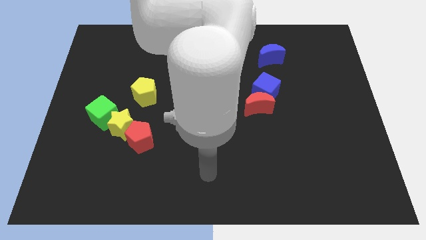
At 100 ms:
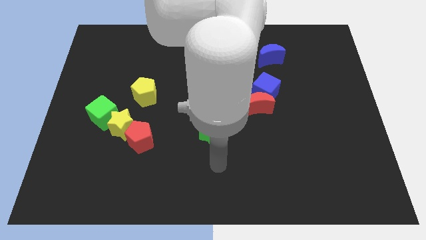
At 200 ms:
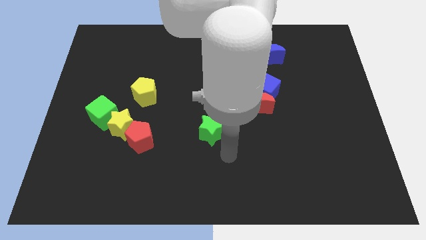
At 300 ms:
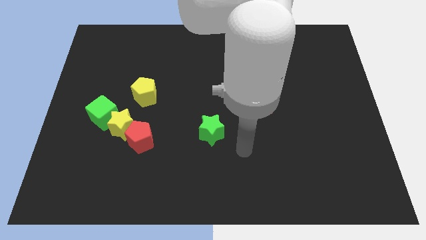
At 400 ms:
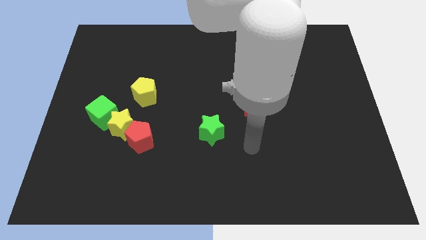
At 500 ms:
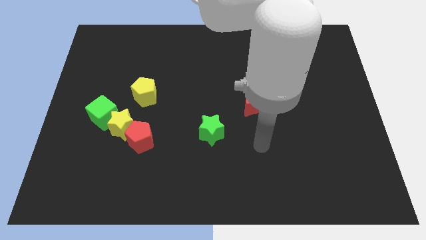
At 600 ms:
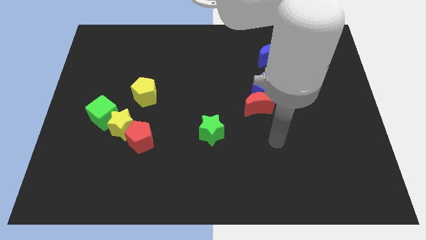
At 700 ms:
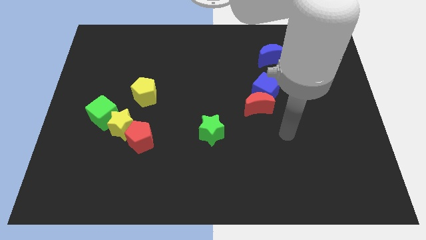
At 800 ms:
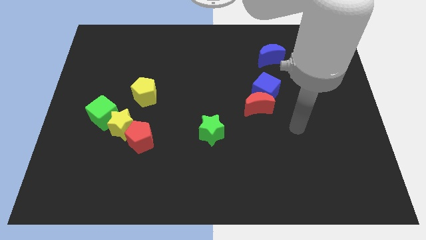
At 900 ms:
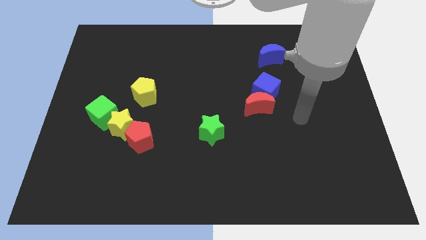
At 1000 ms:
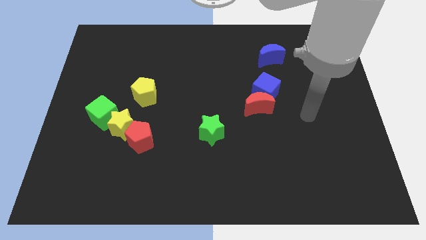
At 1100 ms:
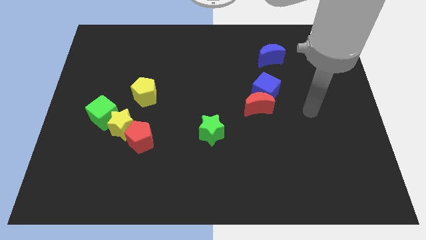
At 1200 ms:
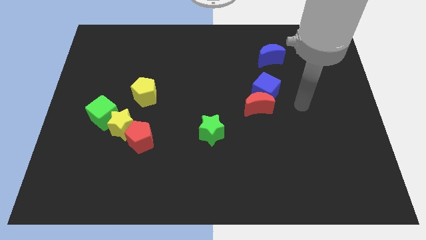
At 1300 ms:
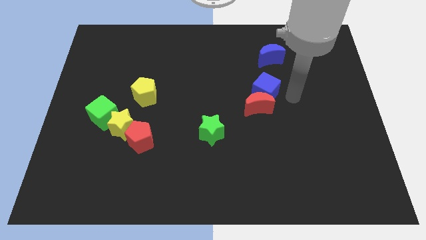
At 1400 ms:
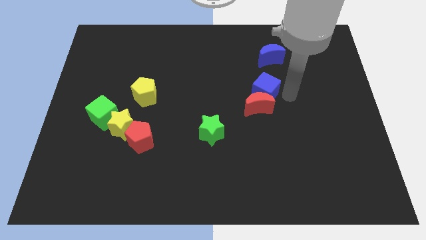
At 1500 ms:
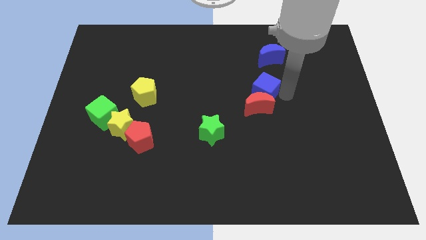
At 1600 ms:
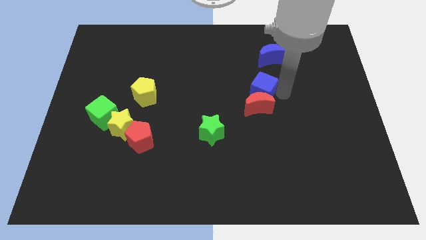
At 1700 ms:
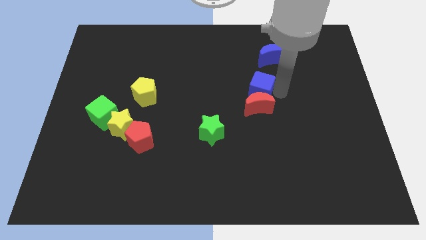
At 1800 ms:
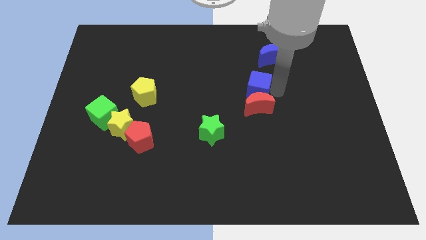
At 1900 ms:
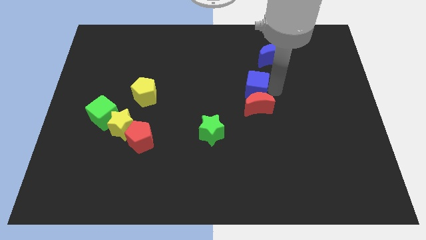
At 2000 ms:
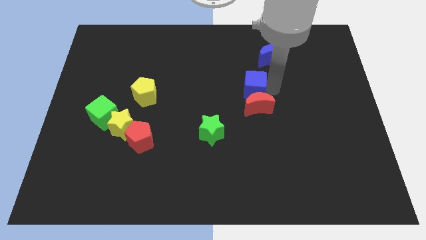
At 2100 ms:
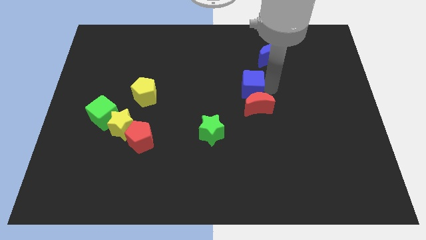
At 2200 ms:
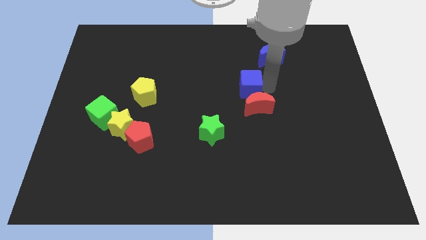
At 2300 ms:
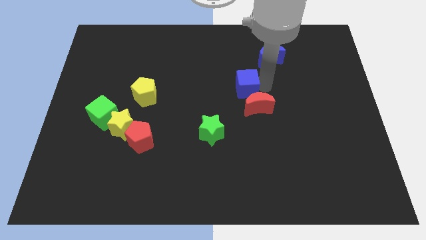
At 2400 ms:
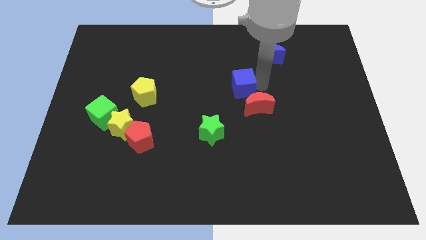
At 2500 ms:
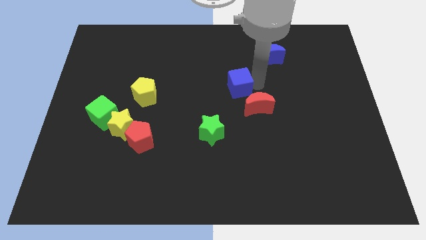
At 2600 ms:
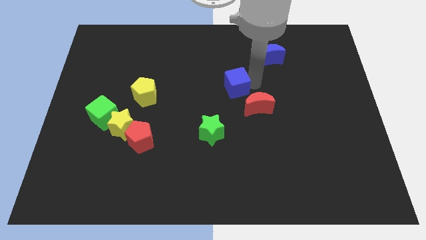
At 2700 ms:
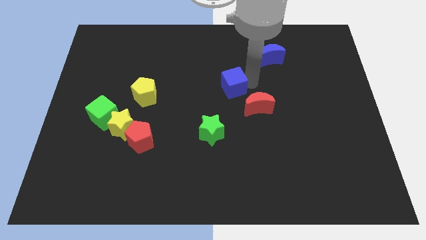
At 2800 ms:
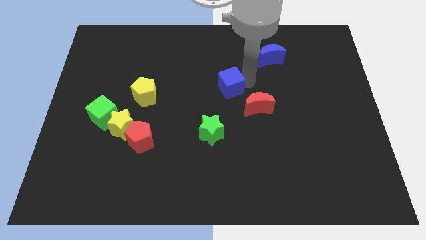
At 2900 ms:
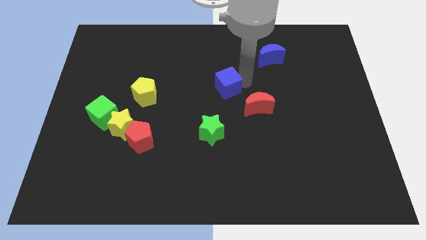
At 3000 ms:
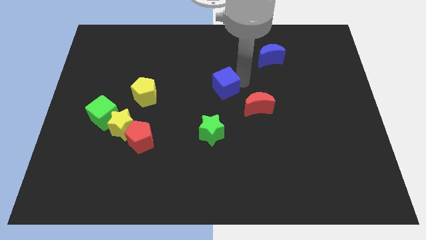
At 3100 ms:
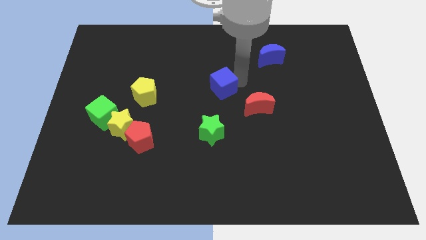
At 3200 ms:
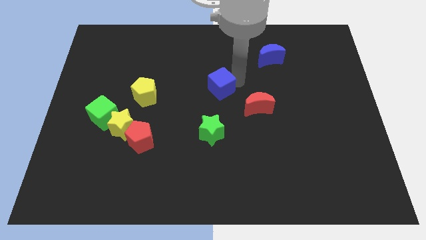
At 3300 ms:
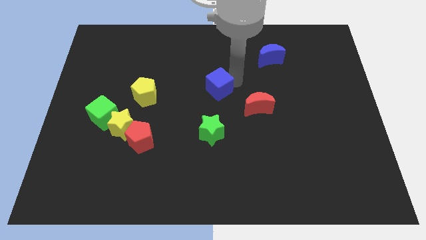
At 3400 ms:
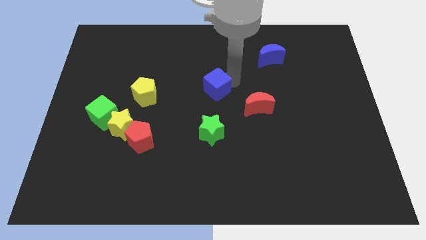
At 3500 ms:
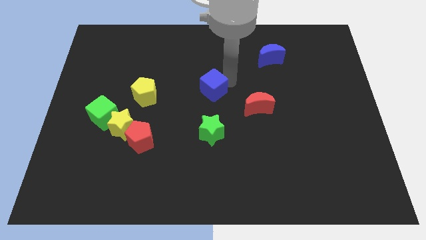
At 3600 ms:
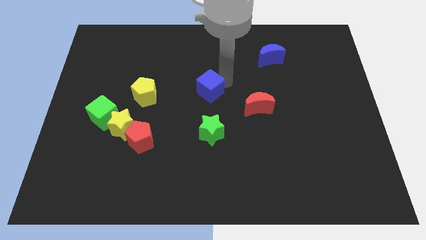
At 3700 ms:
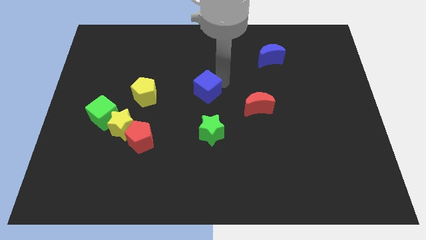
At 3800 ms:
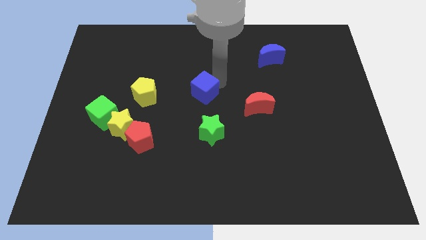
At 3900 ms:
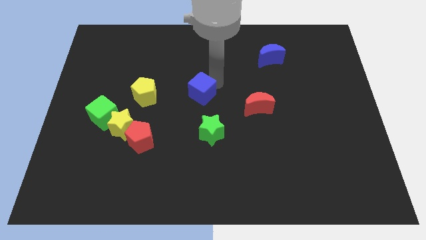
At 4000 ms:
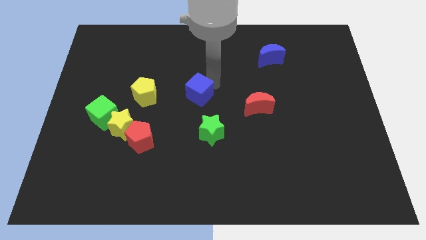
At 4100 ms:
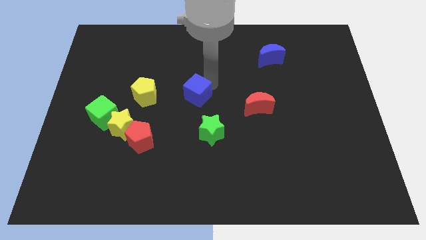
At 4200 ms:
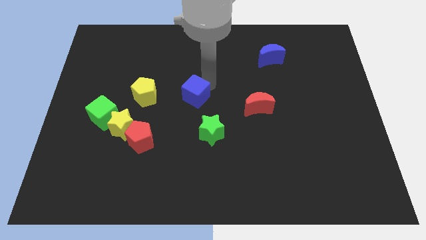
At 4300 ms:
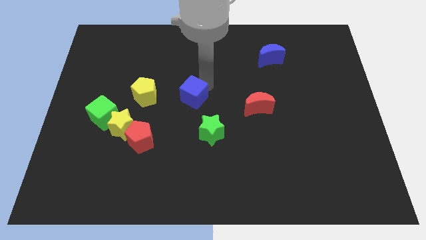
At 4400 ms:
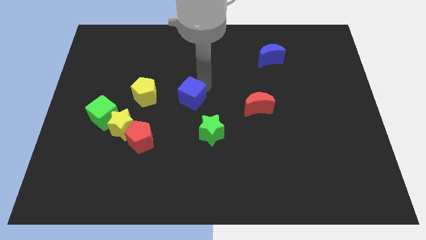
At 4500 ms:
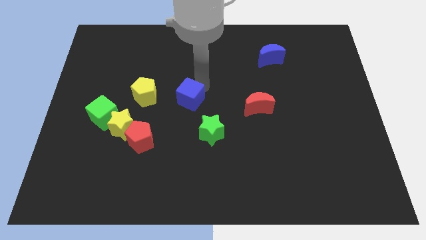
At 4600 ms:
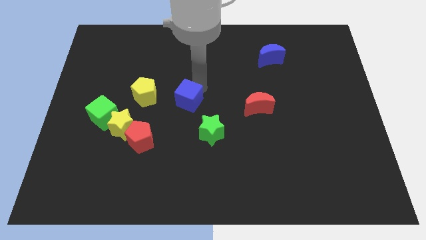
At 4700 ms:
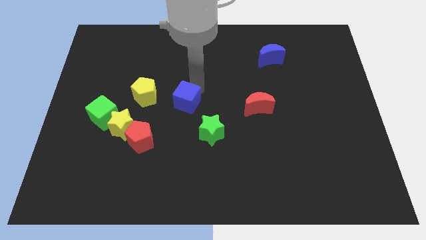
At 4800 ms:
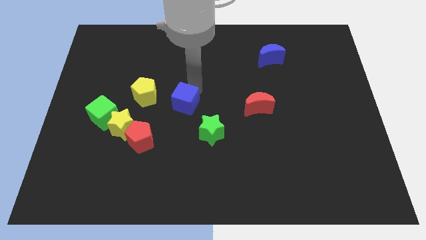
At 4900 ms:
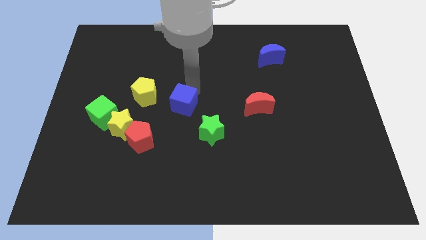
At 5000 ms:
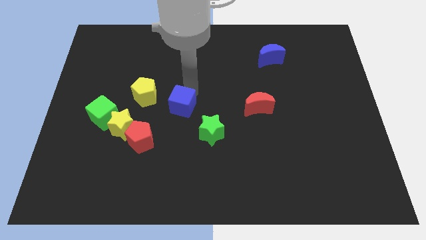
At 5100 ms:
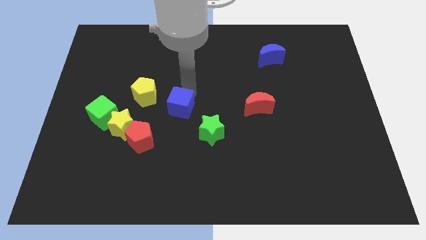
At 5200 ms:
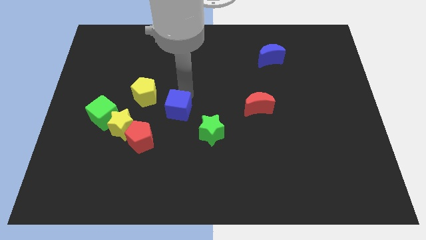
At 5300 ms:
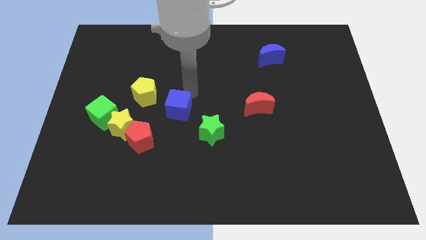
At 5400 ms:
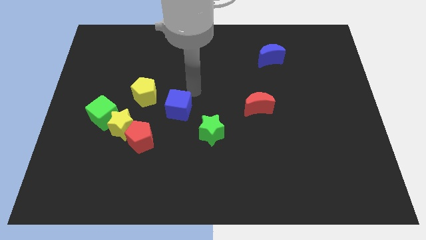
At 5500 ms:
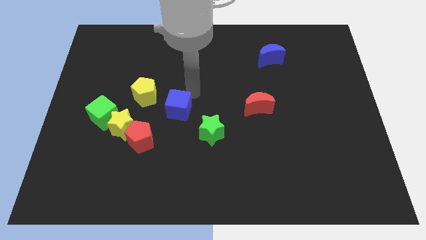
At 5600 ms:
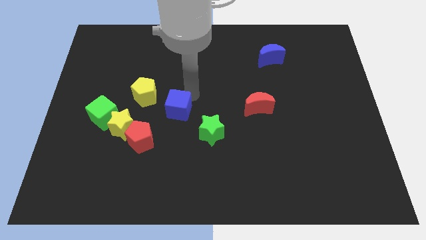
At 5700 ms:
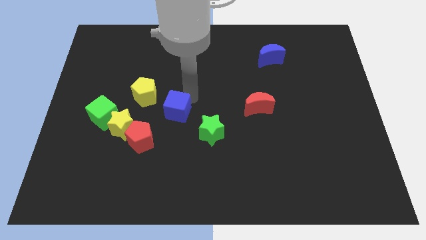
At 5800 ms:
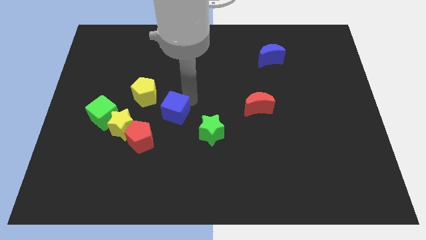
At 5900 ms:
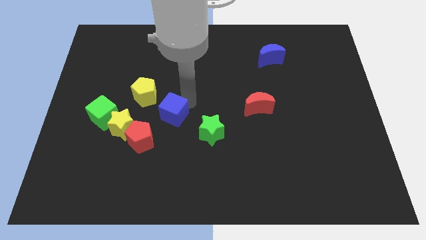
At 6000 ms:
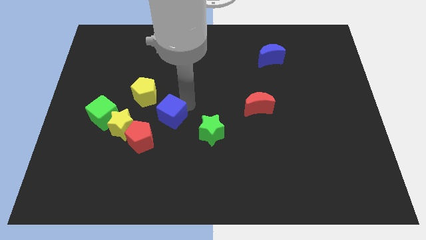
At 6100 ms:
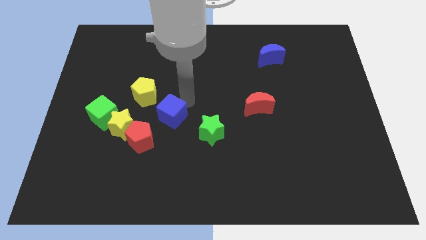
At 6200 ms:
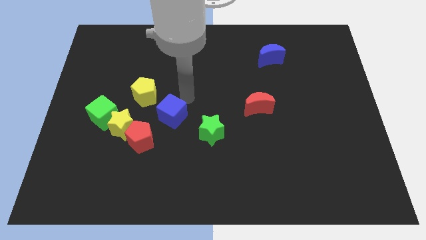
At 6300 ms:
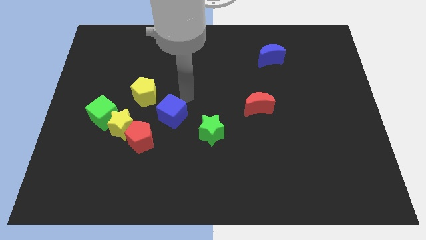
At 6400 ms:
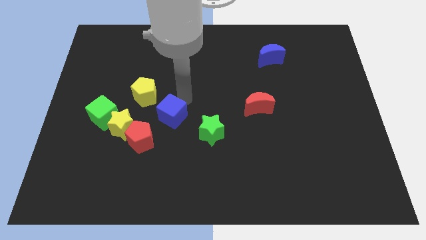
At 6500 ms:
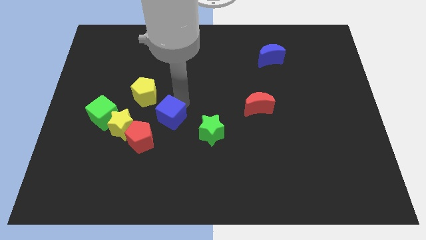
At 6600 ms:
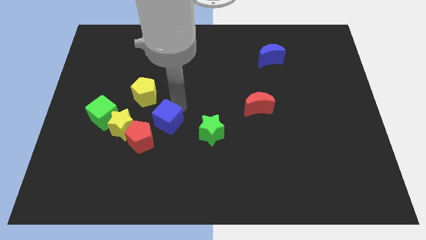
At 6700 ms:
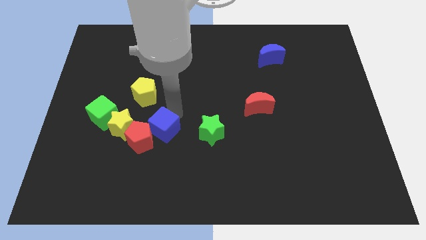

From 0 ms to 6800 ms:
slide the blue cube next to the red pentagon

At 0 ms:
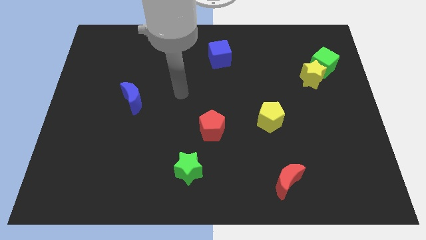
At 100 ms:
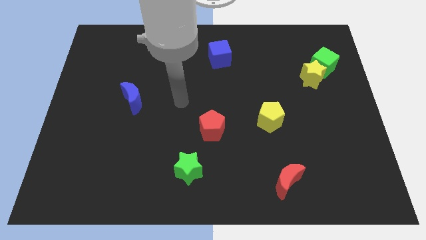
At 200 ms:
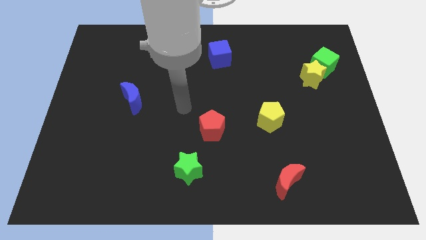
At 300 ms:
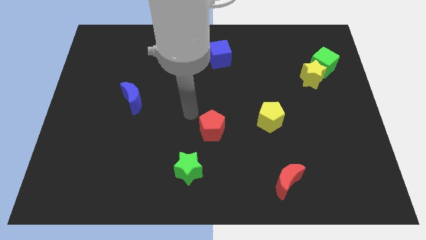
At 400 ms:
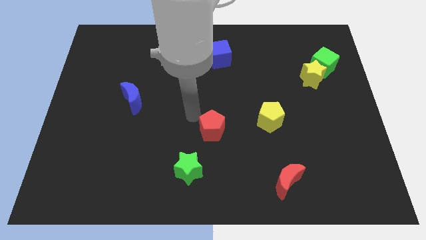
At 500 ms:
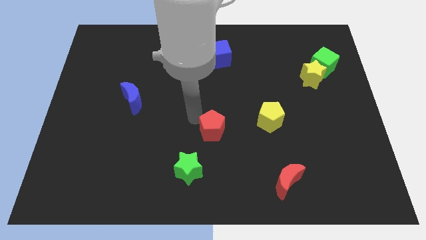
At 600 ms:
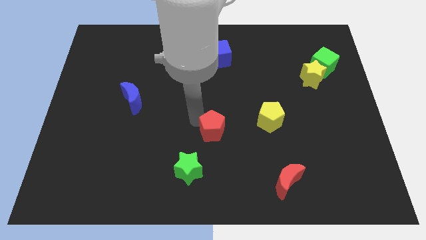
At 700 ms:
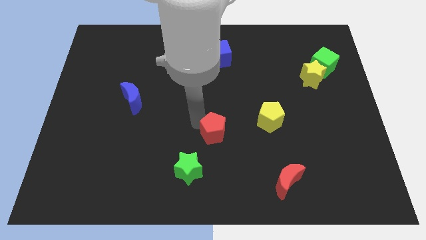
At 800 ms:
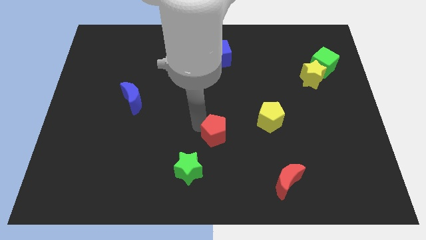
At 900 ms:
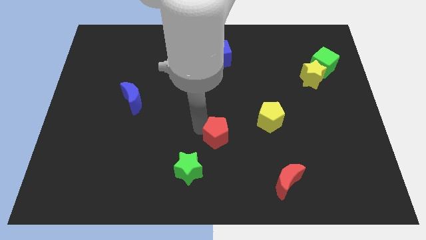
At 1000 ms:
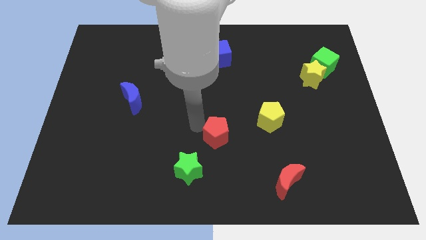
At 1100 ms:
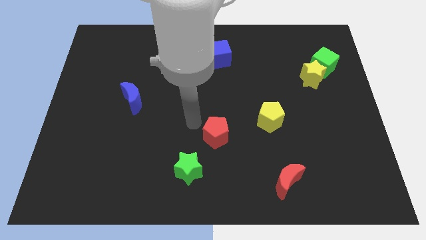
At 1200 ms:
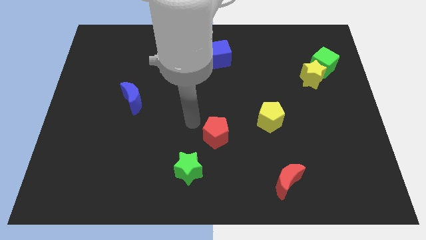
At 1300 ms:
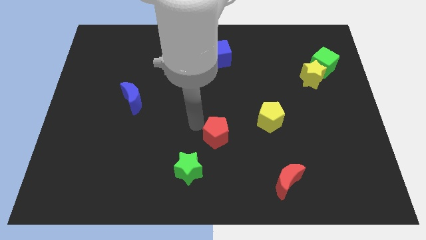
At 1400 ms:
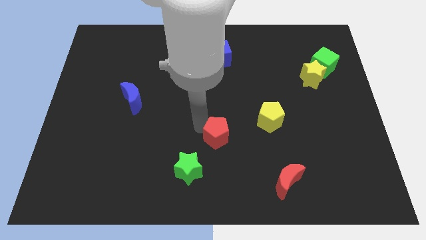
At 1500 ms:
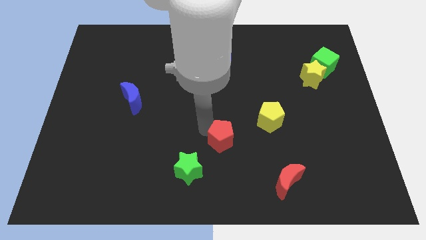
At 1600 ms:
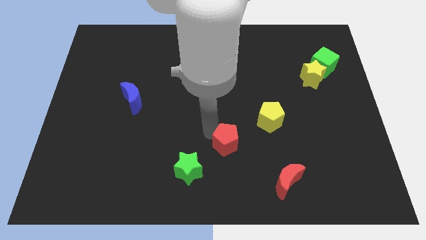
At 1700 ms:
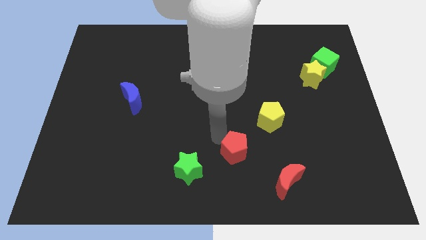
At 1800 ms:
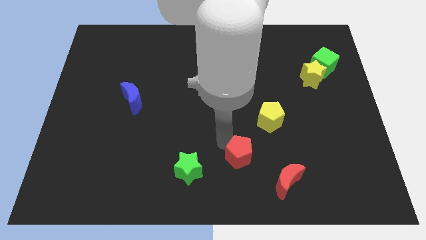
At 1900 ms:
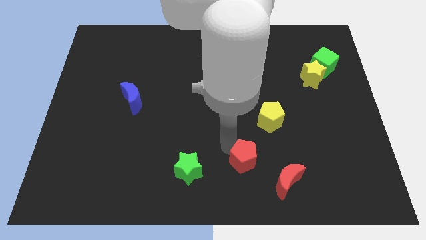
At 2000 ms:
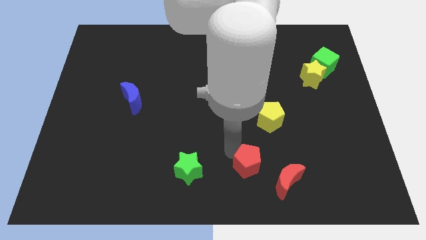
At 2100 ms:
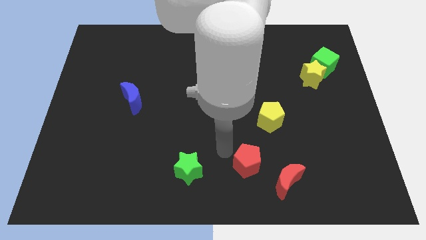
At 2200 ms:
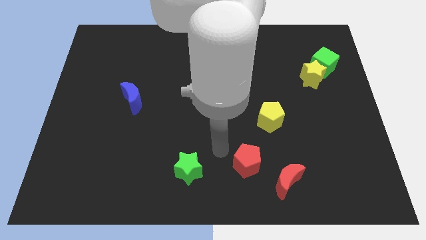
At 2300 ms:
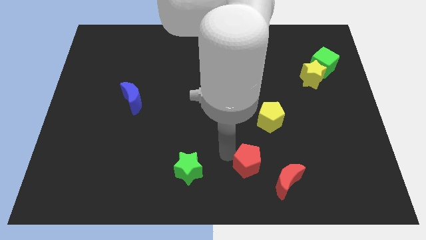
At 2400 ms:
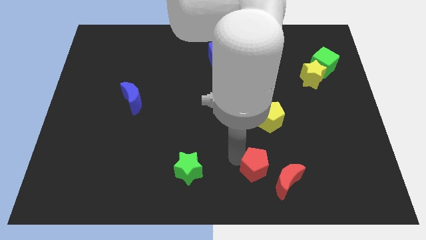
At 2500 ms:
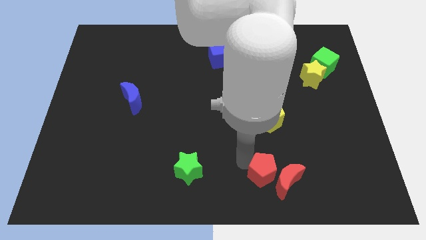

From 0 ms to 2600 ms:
move the red pentagon close to the red moon
